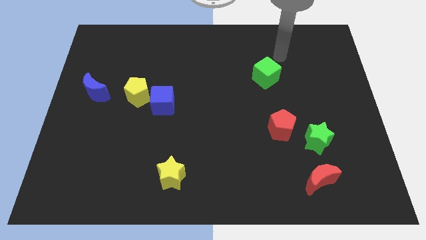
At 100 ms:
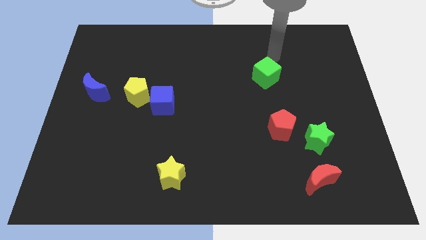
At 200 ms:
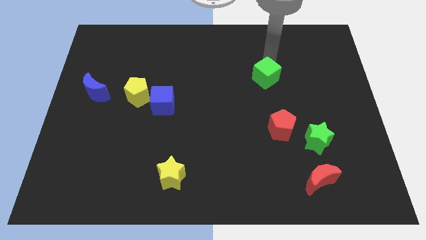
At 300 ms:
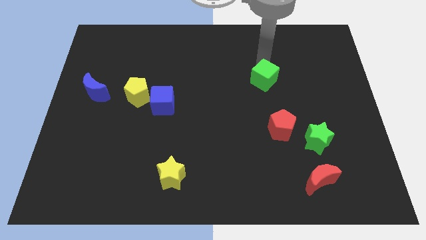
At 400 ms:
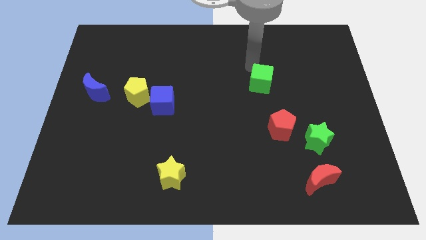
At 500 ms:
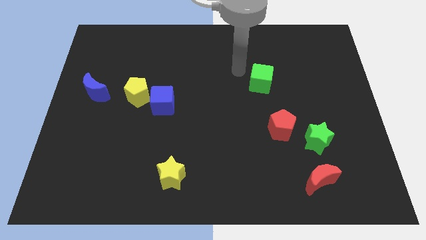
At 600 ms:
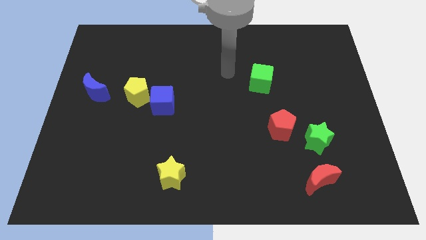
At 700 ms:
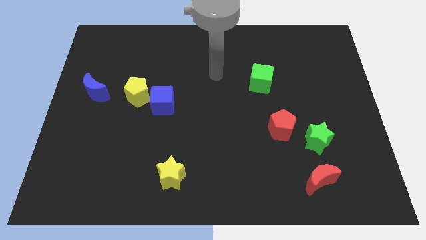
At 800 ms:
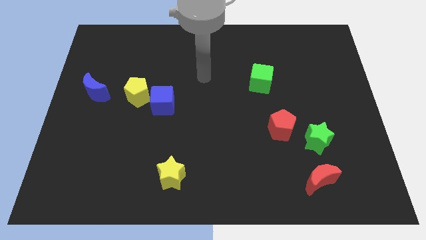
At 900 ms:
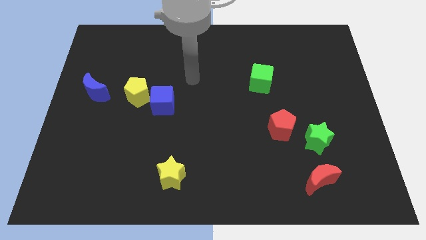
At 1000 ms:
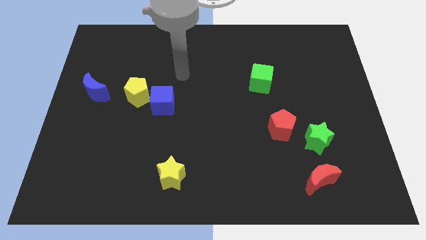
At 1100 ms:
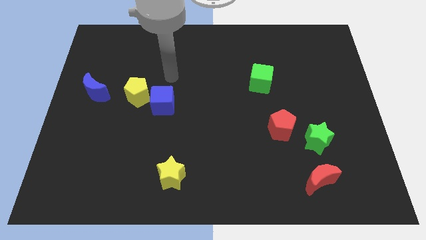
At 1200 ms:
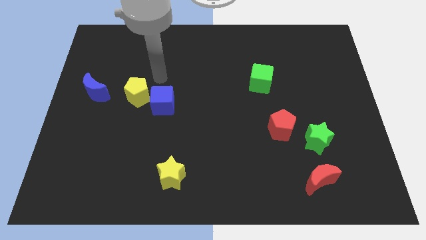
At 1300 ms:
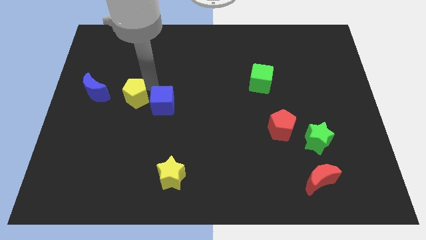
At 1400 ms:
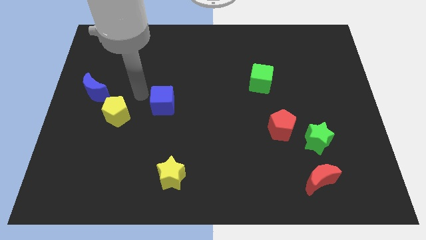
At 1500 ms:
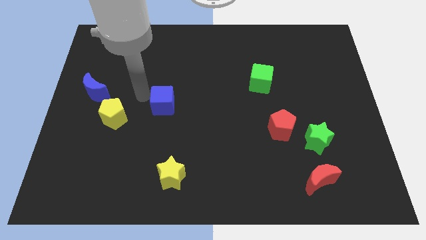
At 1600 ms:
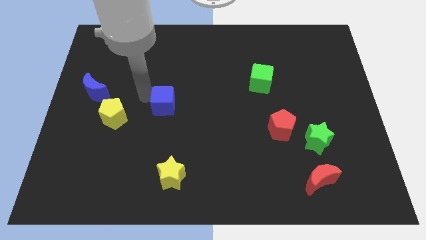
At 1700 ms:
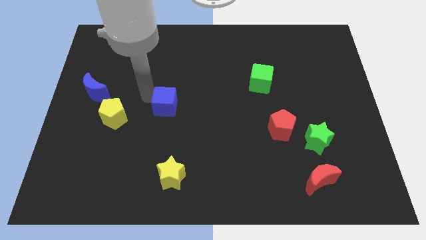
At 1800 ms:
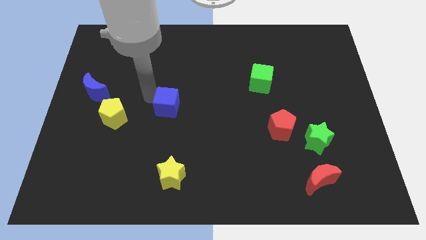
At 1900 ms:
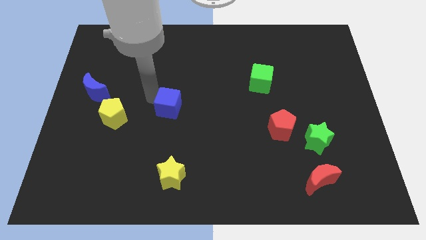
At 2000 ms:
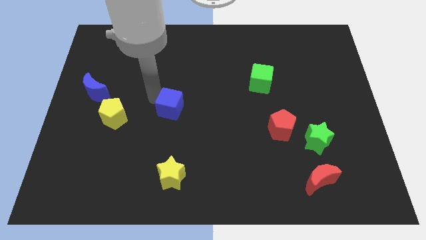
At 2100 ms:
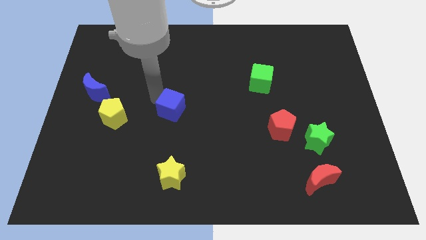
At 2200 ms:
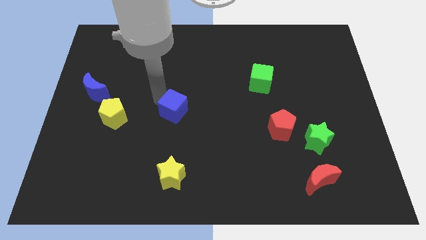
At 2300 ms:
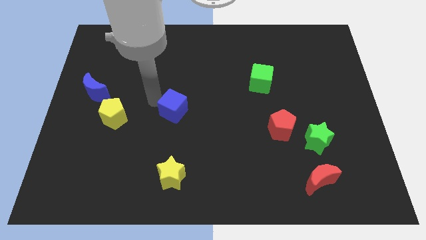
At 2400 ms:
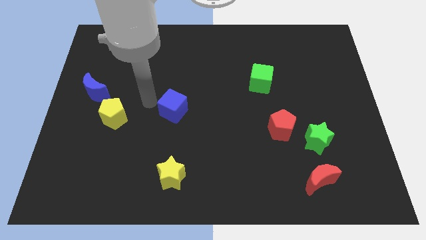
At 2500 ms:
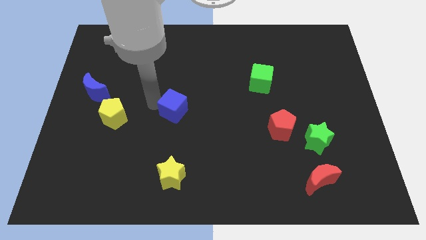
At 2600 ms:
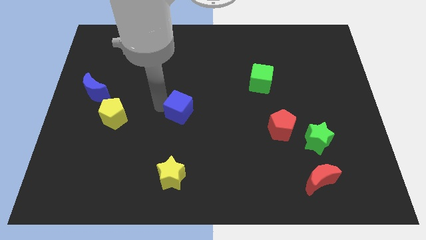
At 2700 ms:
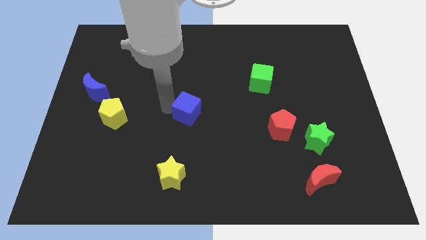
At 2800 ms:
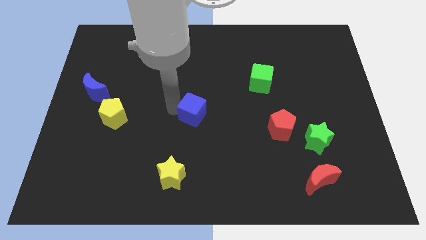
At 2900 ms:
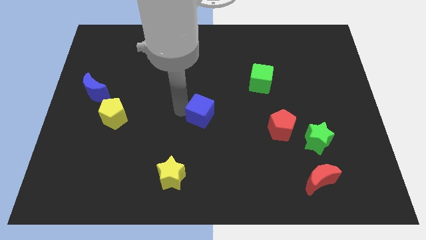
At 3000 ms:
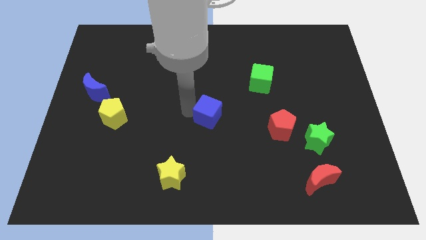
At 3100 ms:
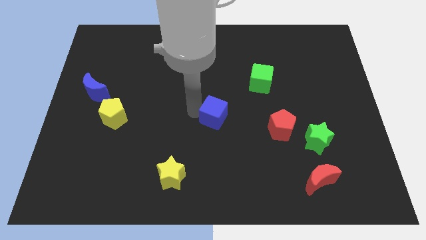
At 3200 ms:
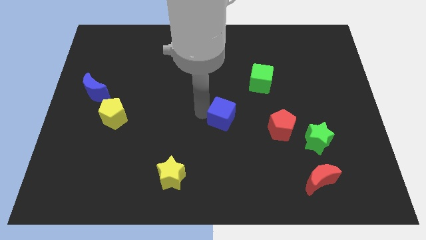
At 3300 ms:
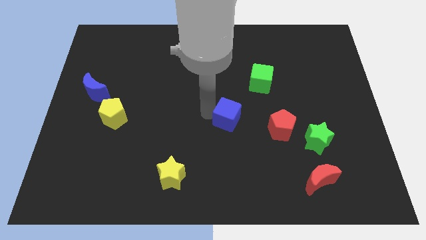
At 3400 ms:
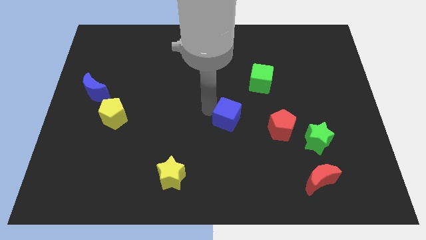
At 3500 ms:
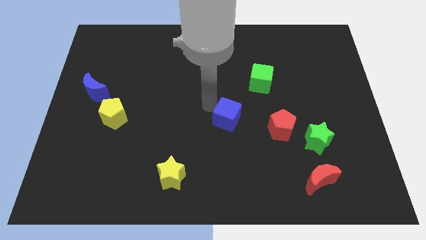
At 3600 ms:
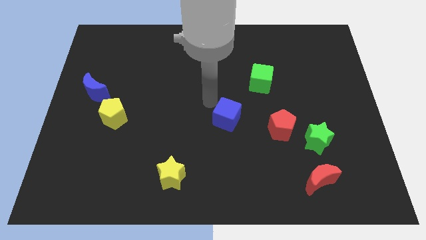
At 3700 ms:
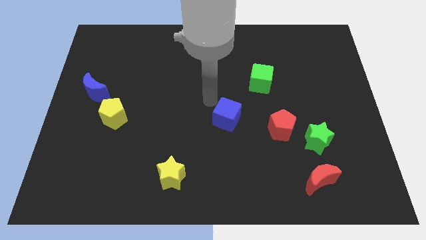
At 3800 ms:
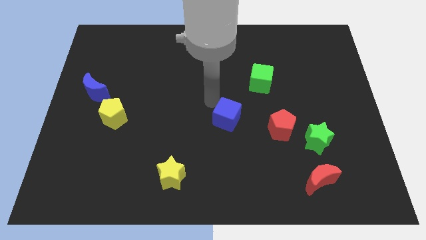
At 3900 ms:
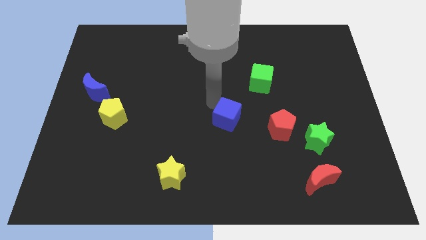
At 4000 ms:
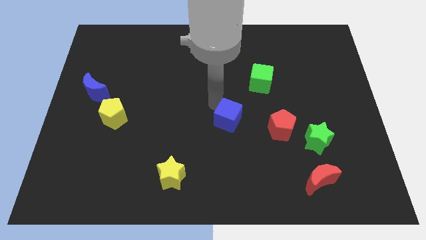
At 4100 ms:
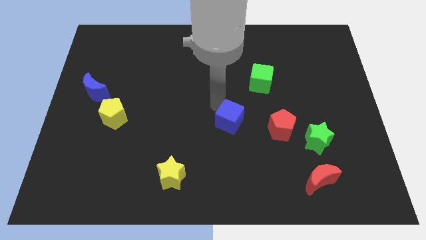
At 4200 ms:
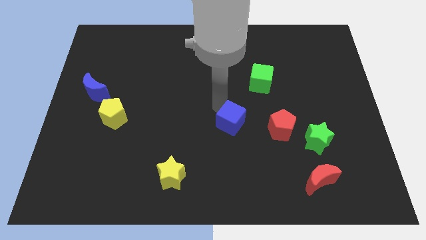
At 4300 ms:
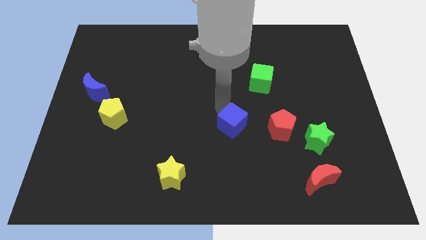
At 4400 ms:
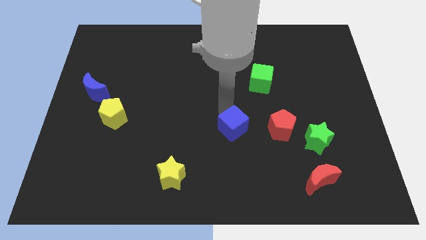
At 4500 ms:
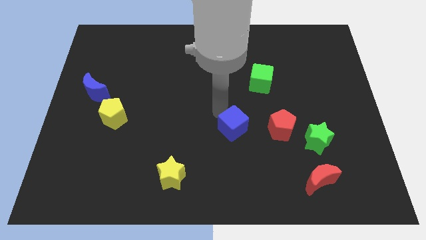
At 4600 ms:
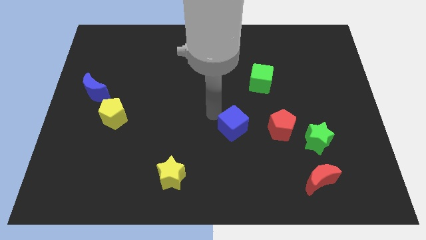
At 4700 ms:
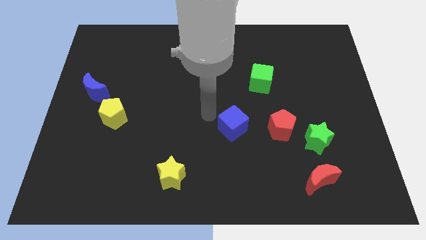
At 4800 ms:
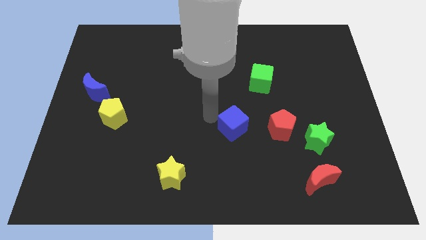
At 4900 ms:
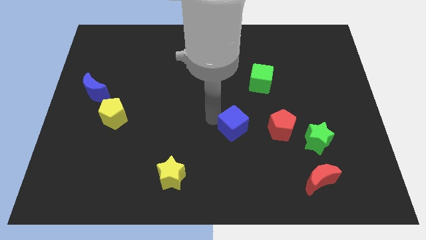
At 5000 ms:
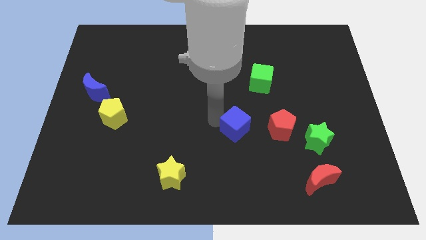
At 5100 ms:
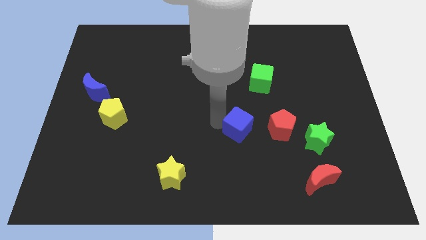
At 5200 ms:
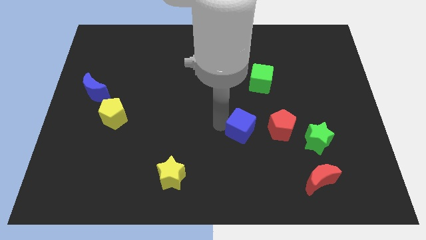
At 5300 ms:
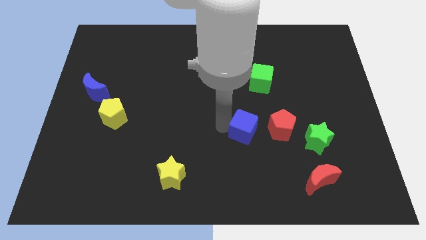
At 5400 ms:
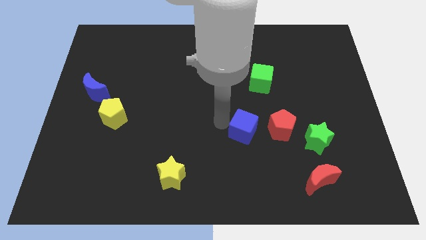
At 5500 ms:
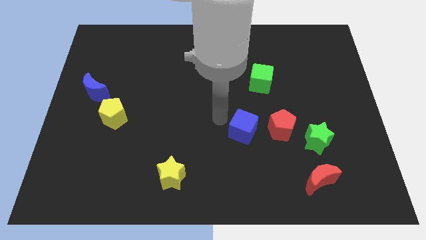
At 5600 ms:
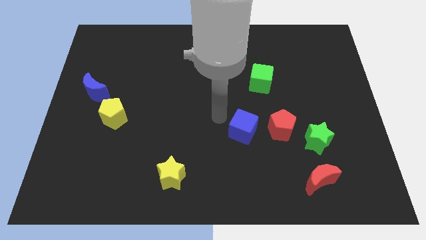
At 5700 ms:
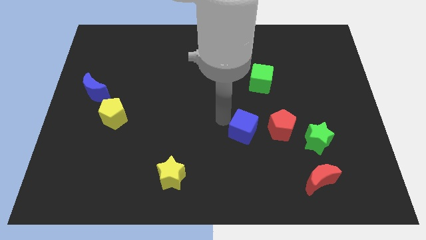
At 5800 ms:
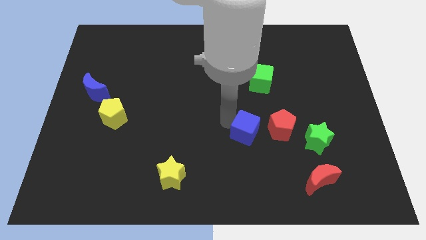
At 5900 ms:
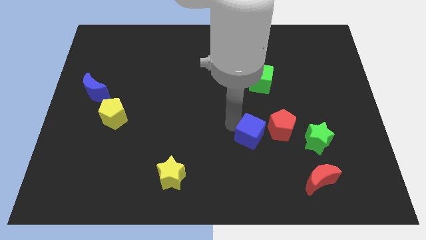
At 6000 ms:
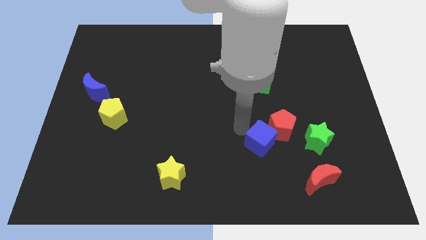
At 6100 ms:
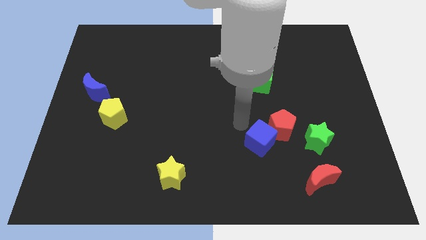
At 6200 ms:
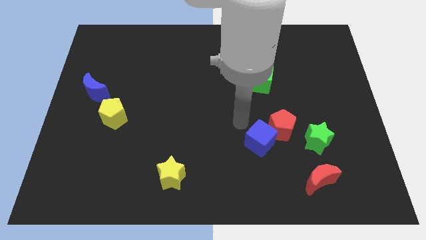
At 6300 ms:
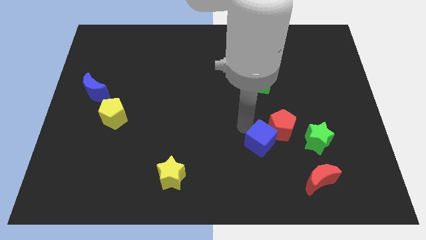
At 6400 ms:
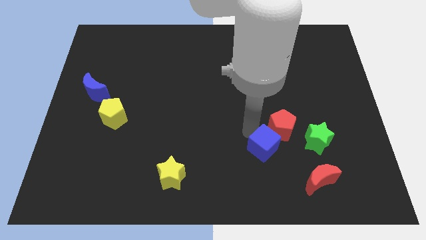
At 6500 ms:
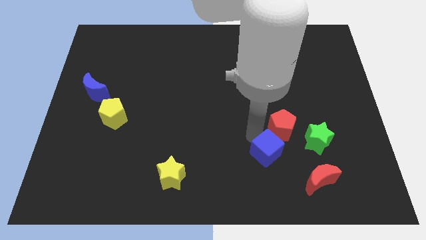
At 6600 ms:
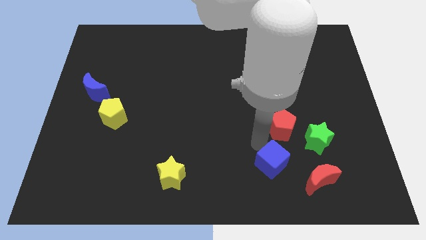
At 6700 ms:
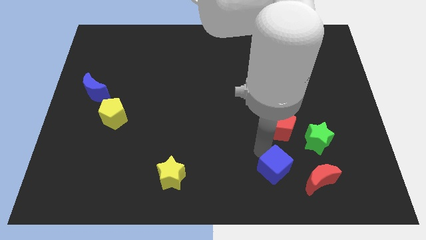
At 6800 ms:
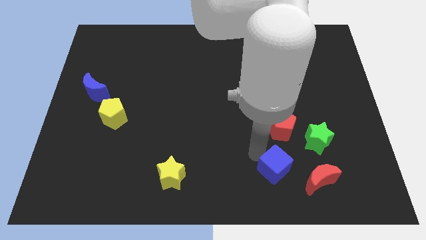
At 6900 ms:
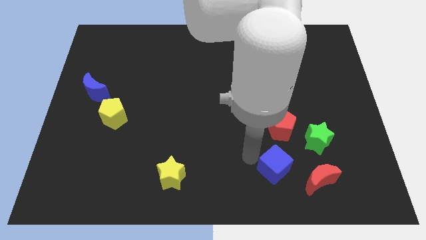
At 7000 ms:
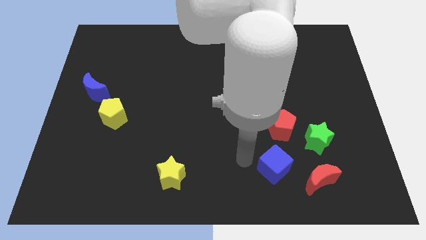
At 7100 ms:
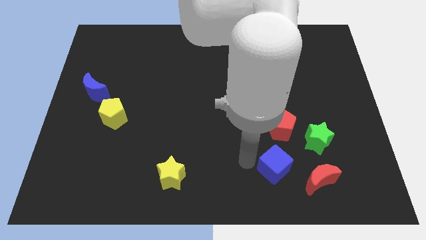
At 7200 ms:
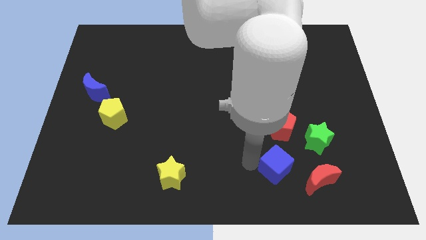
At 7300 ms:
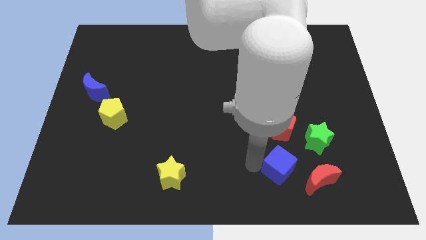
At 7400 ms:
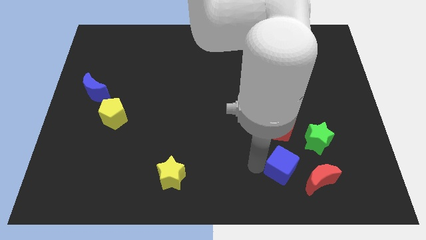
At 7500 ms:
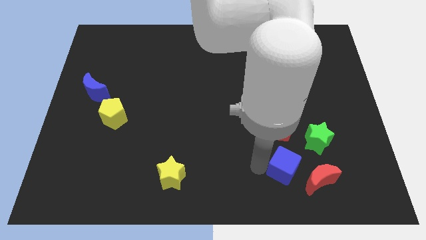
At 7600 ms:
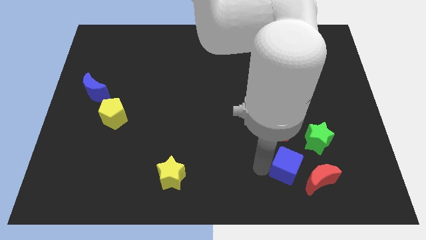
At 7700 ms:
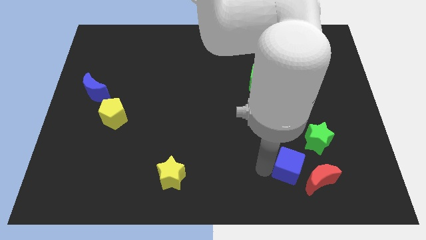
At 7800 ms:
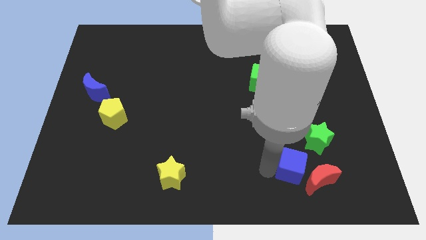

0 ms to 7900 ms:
put the blue cube to the red moon
